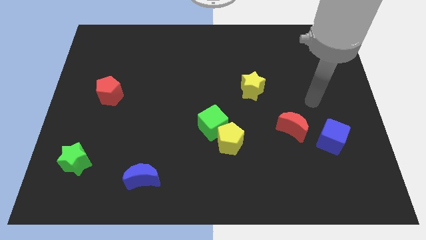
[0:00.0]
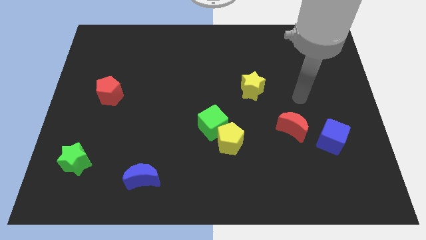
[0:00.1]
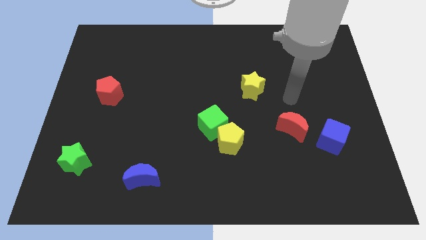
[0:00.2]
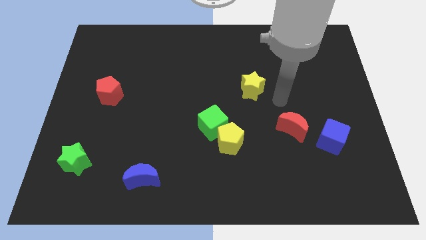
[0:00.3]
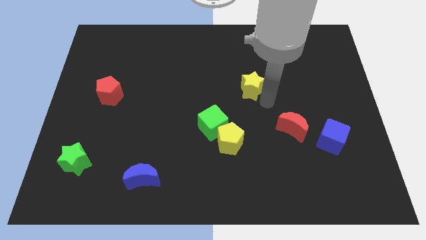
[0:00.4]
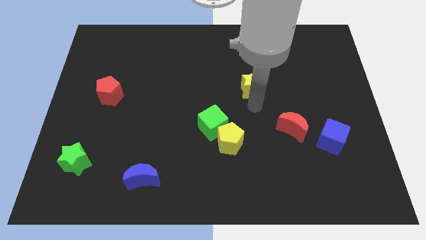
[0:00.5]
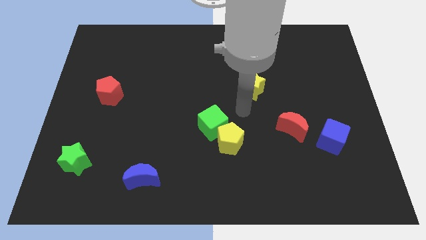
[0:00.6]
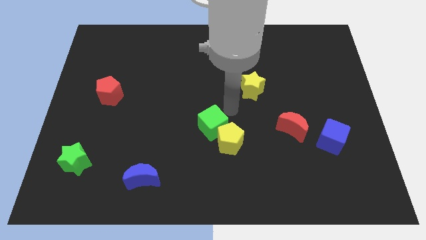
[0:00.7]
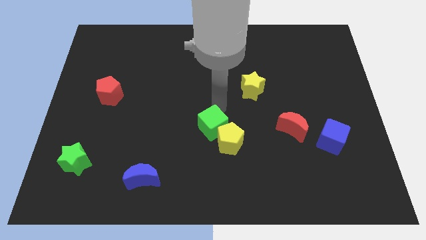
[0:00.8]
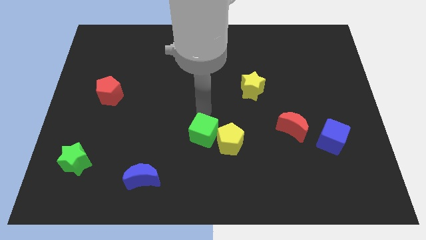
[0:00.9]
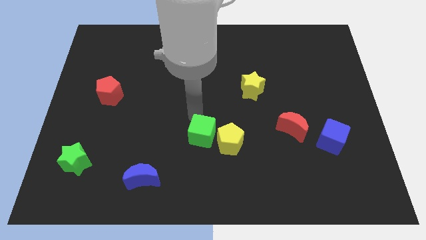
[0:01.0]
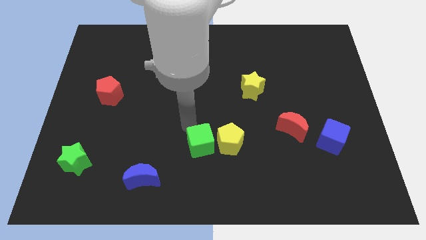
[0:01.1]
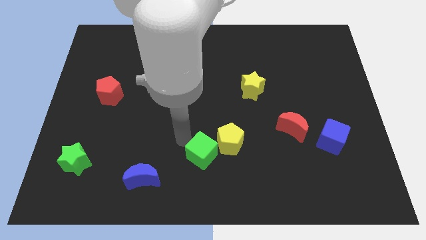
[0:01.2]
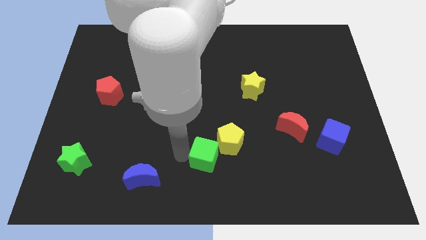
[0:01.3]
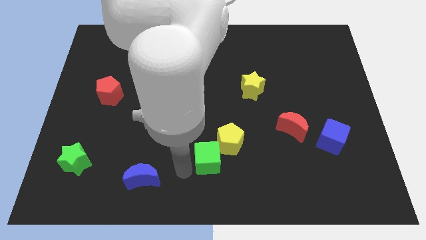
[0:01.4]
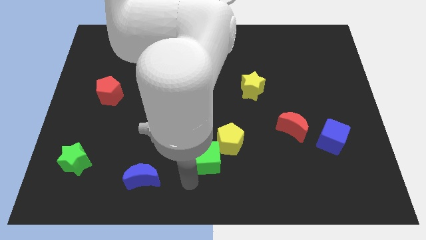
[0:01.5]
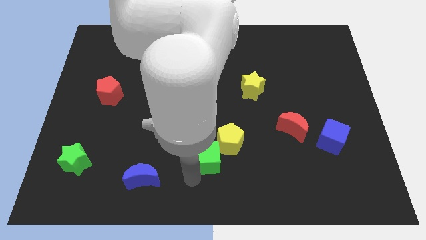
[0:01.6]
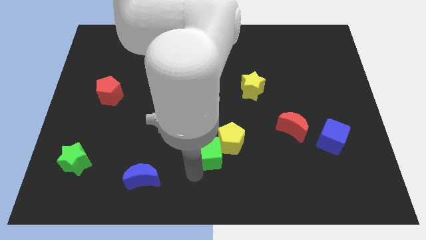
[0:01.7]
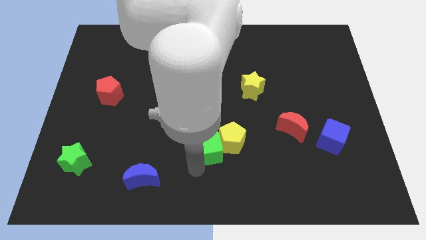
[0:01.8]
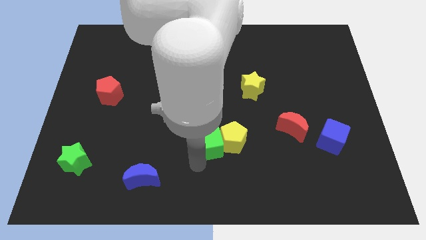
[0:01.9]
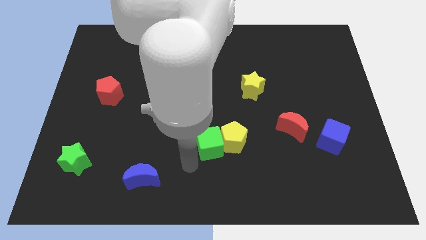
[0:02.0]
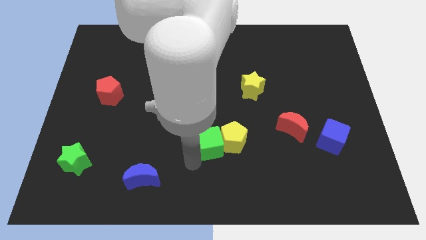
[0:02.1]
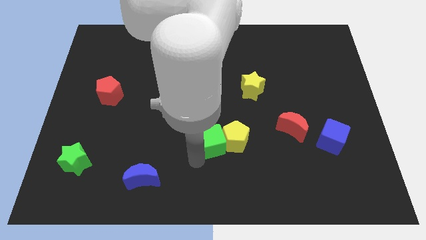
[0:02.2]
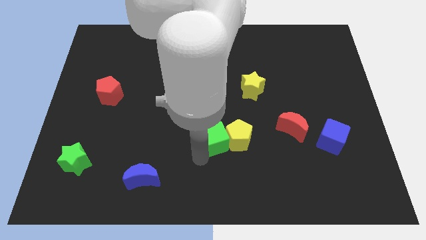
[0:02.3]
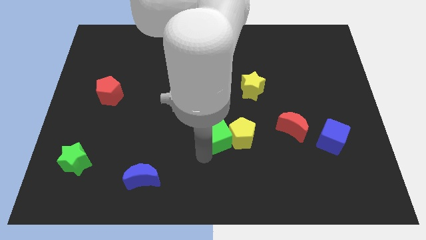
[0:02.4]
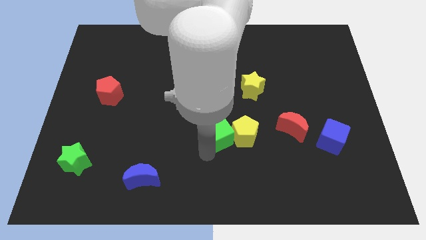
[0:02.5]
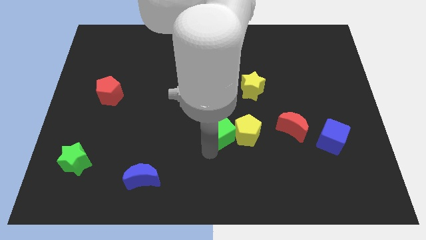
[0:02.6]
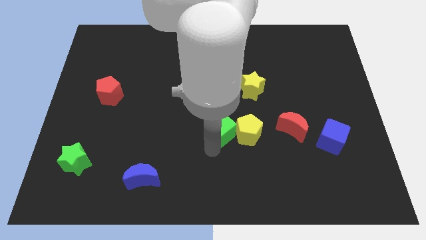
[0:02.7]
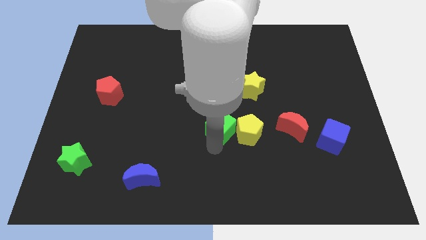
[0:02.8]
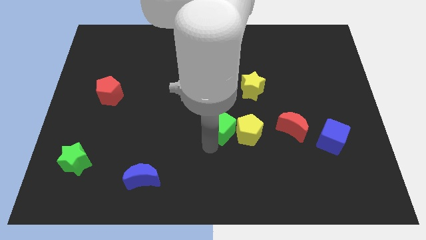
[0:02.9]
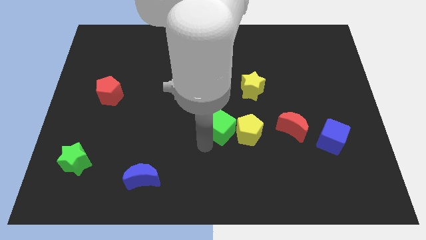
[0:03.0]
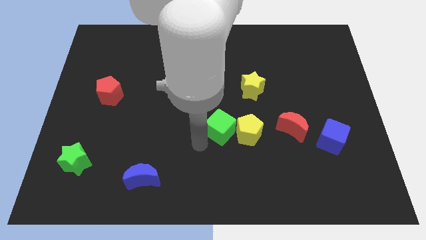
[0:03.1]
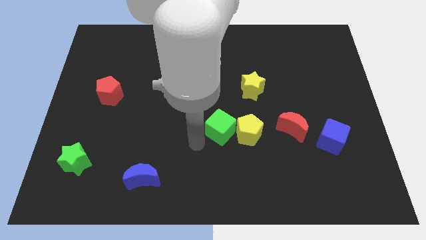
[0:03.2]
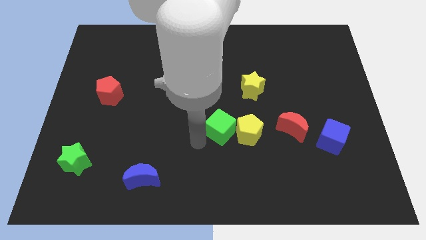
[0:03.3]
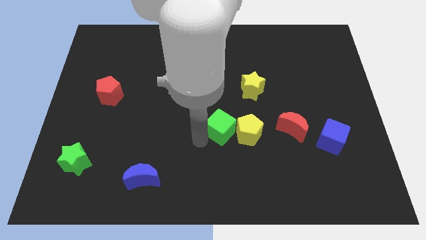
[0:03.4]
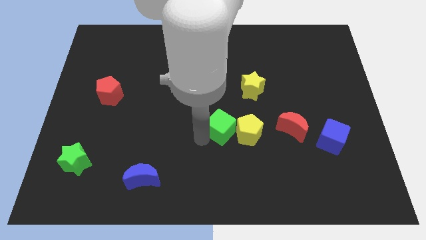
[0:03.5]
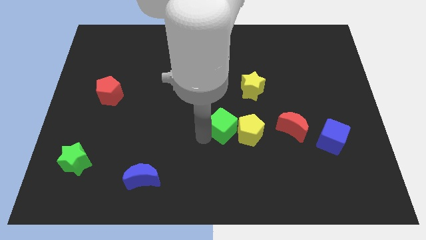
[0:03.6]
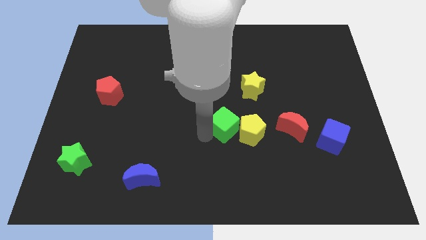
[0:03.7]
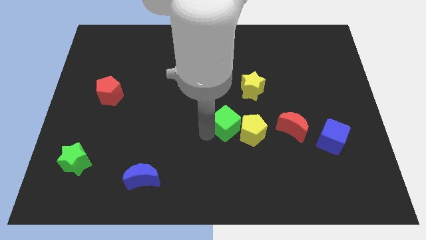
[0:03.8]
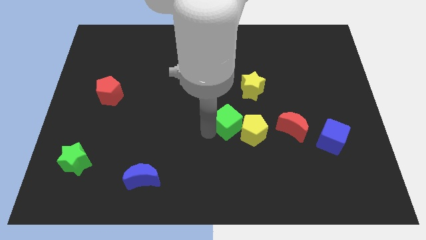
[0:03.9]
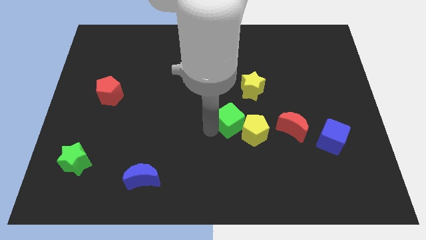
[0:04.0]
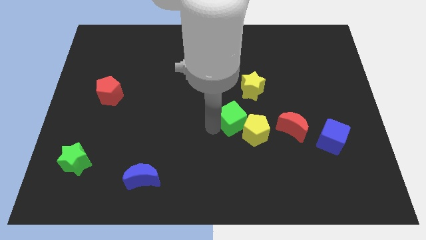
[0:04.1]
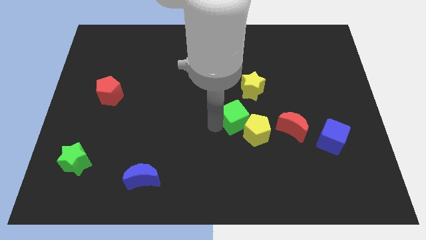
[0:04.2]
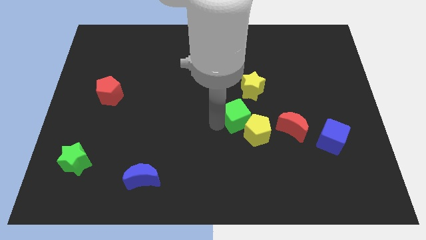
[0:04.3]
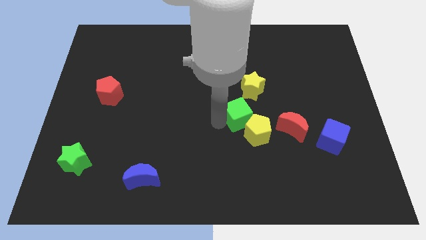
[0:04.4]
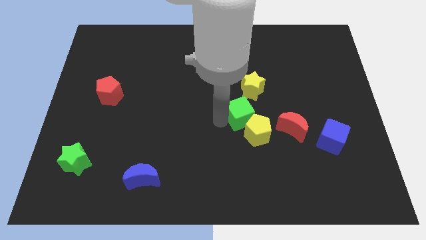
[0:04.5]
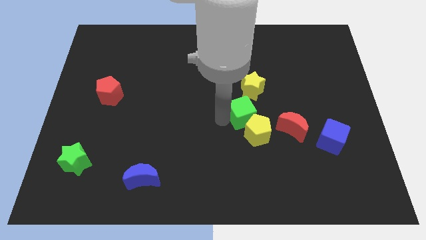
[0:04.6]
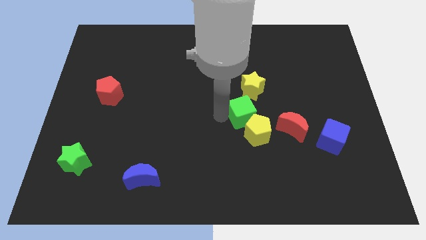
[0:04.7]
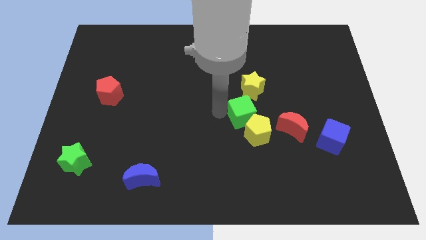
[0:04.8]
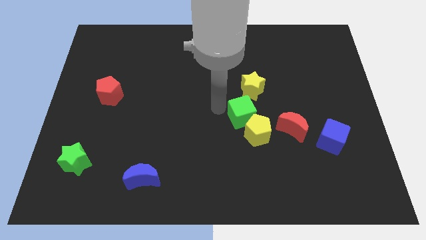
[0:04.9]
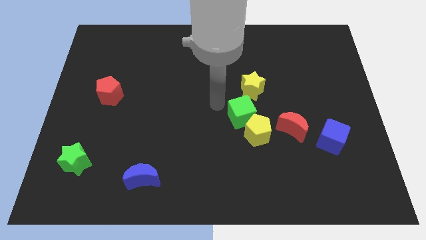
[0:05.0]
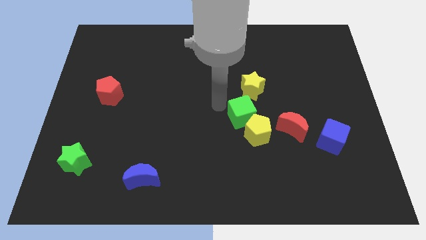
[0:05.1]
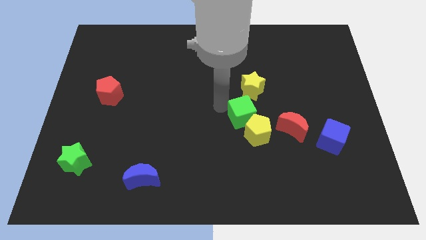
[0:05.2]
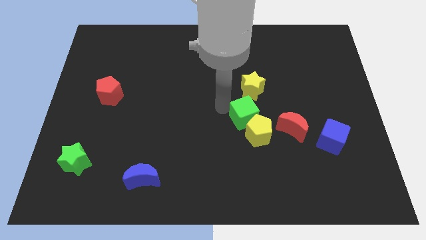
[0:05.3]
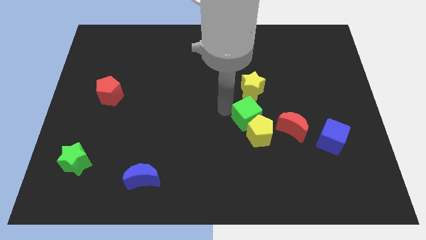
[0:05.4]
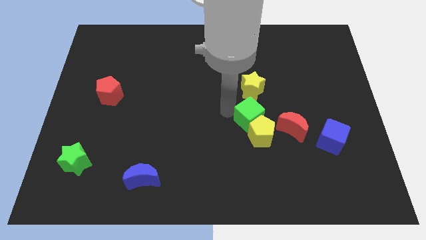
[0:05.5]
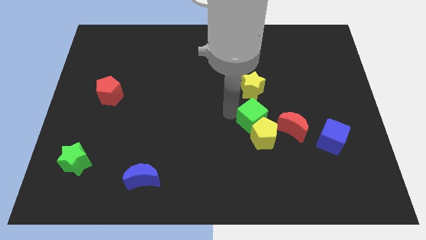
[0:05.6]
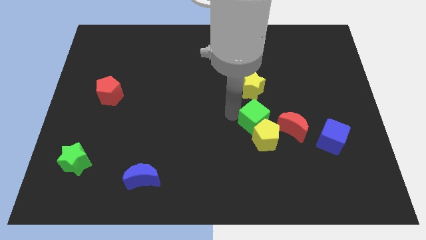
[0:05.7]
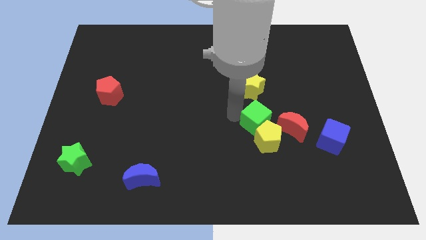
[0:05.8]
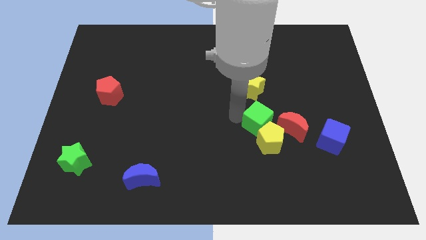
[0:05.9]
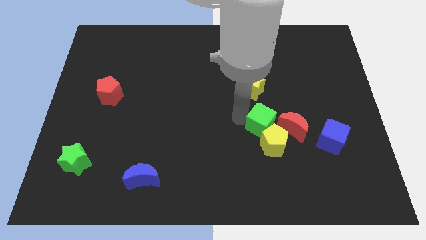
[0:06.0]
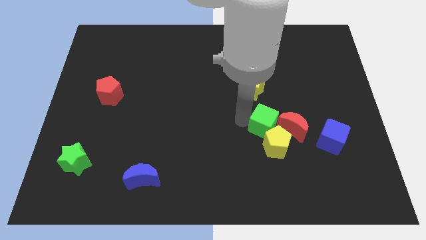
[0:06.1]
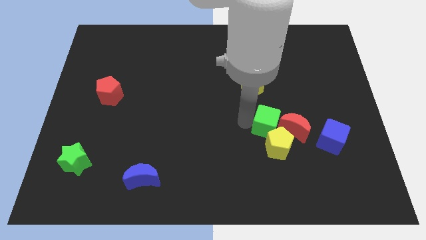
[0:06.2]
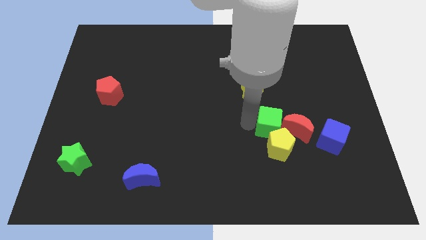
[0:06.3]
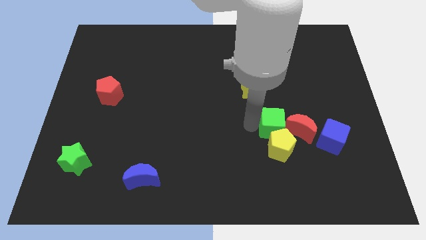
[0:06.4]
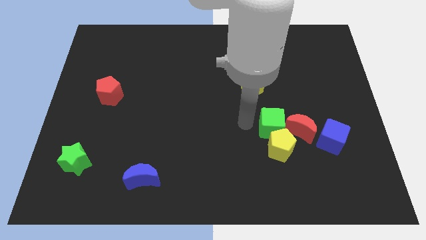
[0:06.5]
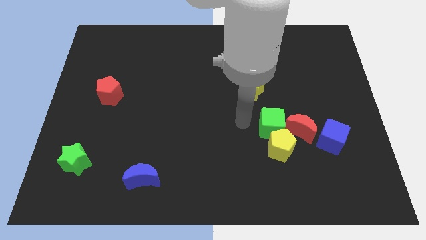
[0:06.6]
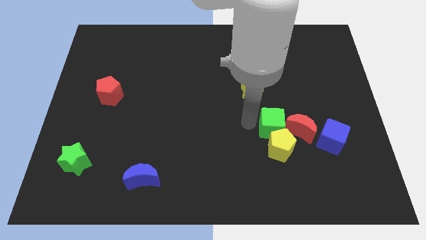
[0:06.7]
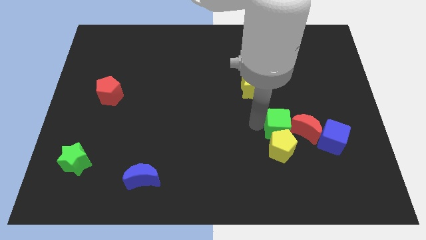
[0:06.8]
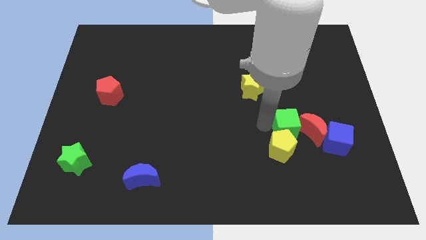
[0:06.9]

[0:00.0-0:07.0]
slide the green cube to the red moon
